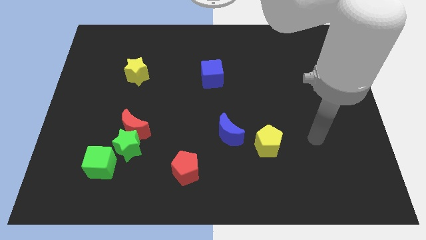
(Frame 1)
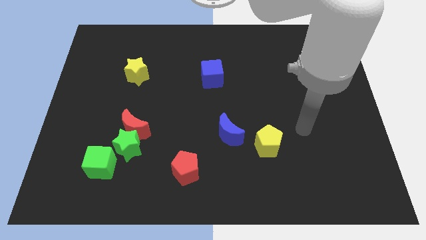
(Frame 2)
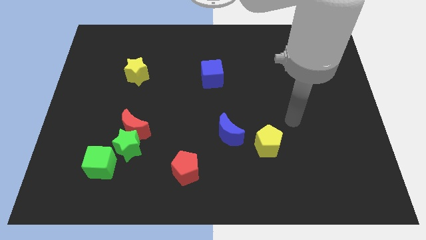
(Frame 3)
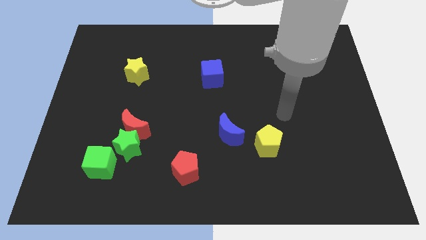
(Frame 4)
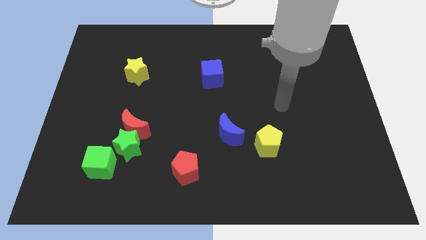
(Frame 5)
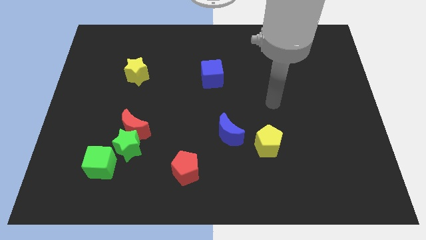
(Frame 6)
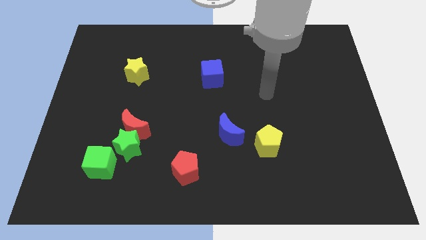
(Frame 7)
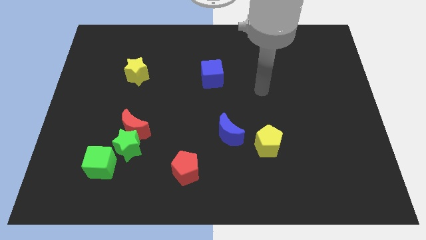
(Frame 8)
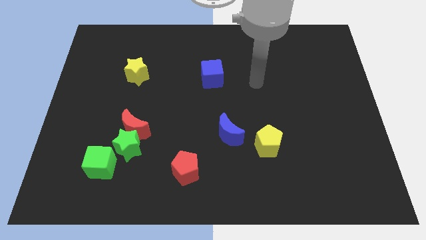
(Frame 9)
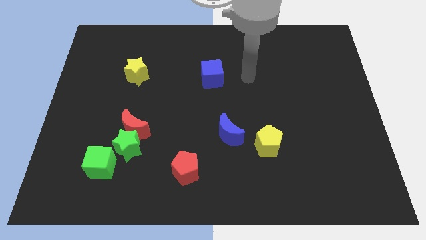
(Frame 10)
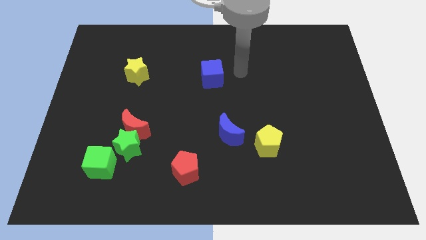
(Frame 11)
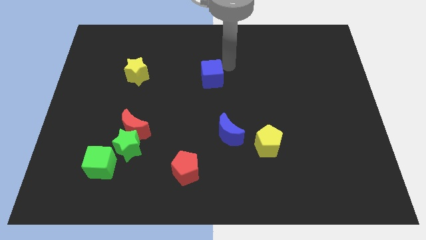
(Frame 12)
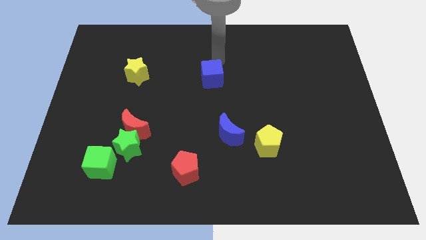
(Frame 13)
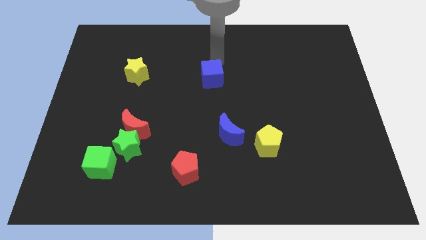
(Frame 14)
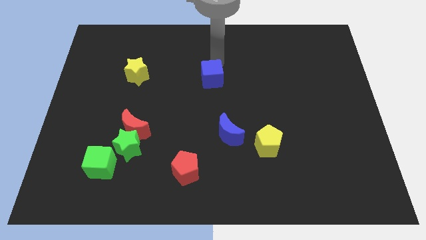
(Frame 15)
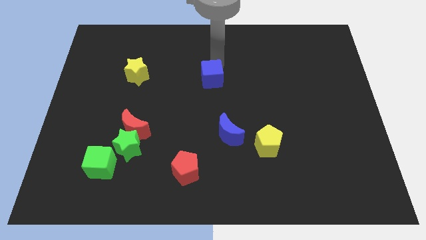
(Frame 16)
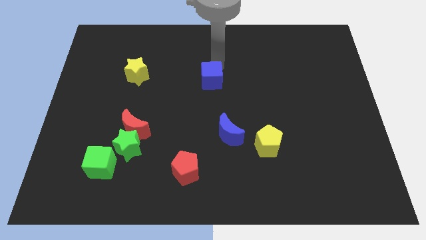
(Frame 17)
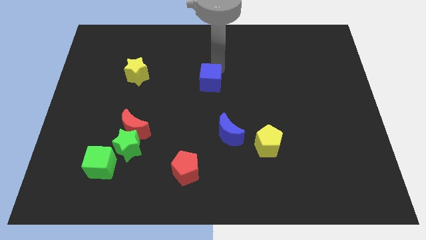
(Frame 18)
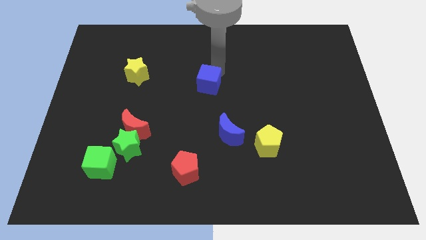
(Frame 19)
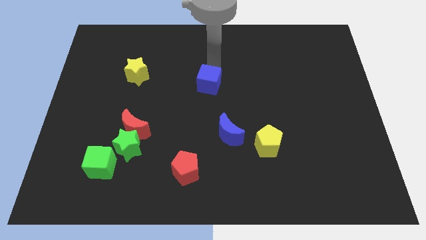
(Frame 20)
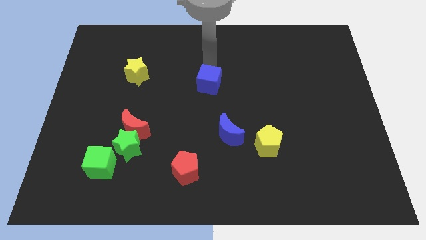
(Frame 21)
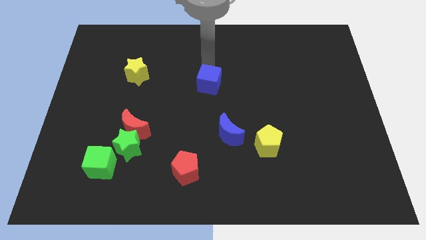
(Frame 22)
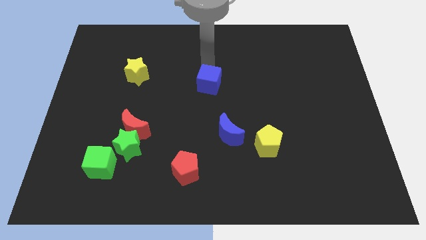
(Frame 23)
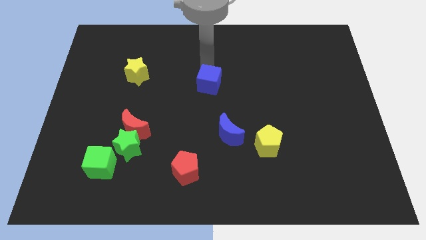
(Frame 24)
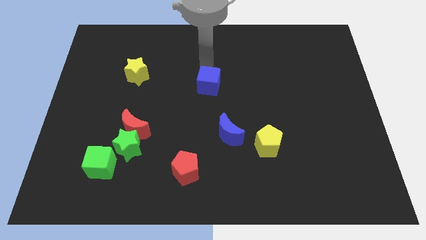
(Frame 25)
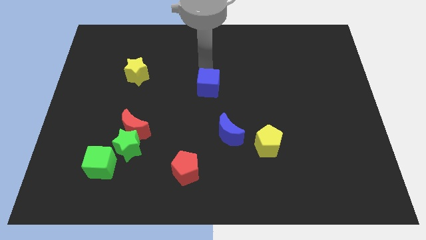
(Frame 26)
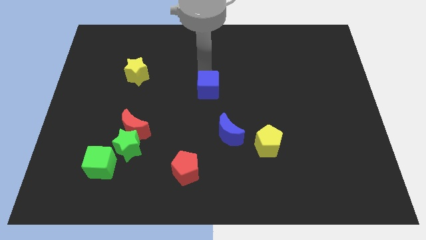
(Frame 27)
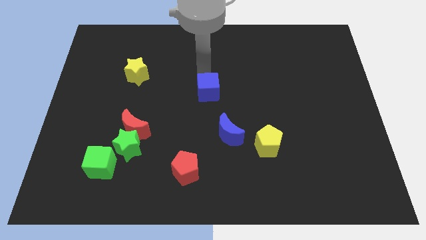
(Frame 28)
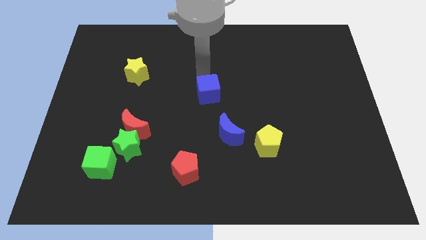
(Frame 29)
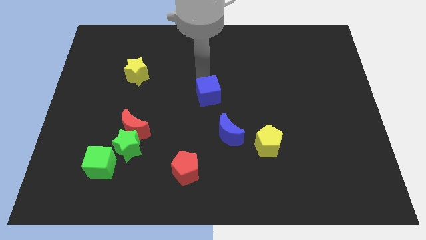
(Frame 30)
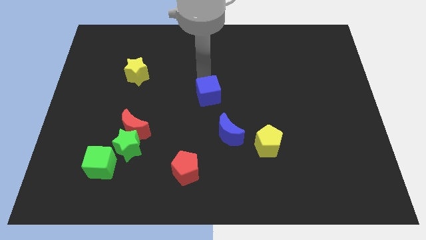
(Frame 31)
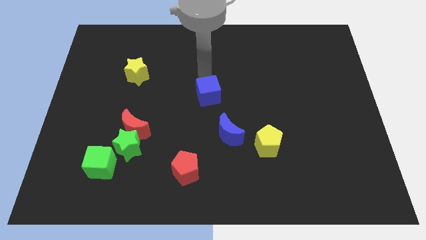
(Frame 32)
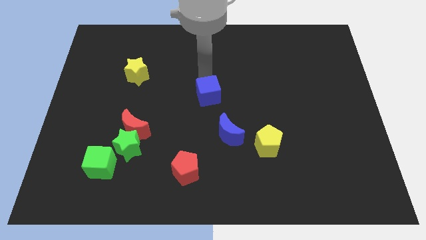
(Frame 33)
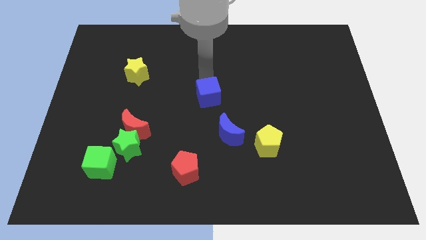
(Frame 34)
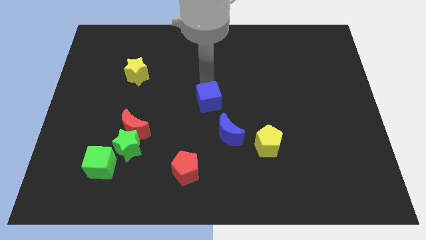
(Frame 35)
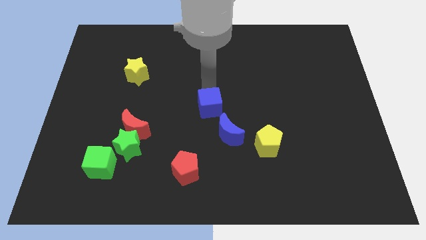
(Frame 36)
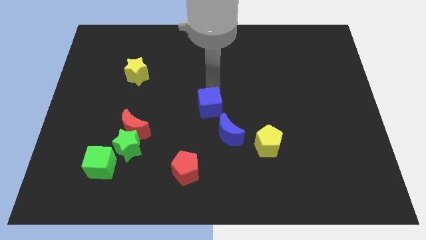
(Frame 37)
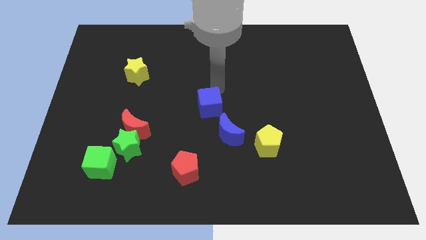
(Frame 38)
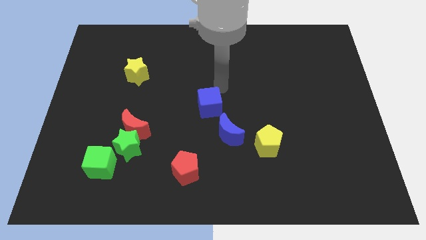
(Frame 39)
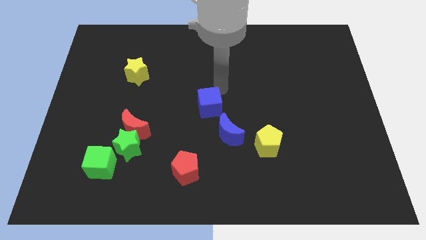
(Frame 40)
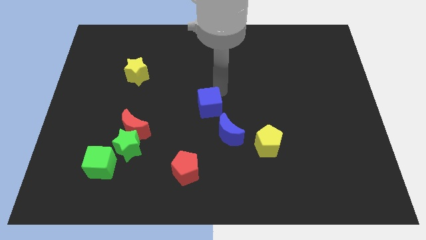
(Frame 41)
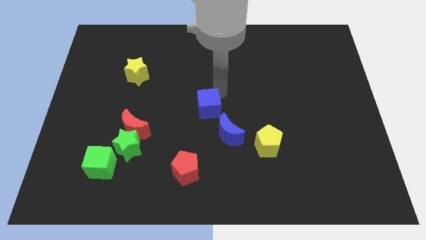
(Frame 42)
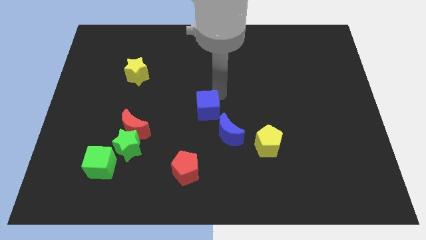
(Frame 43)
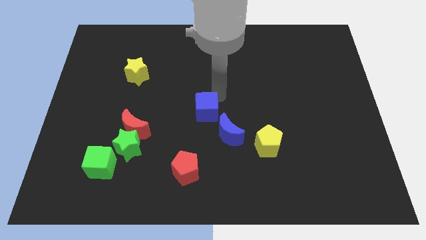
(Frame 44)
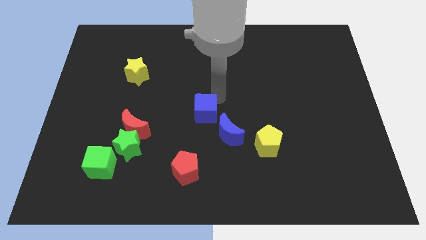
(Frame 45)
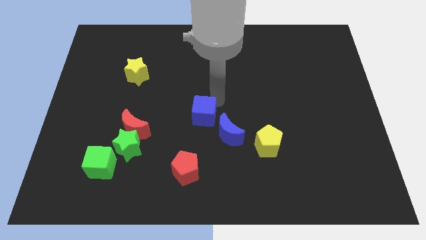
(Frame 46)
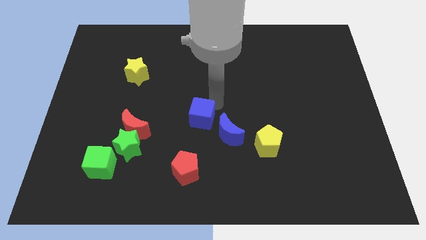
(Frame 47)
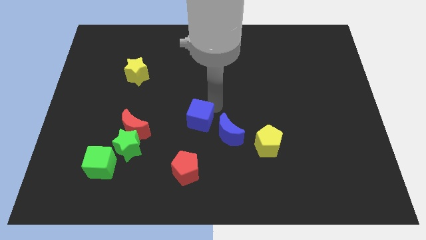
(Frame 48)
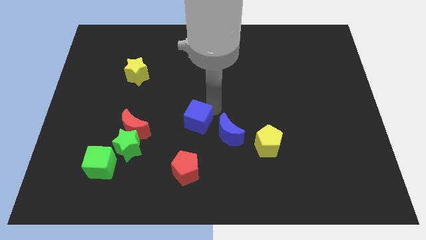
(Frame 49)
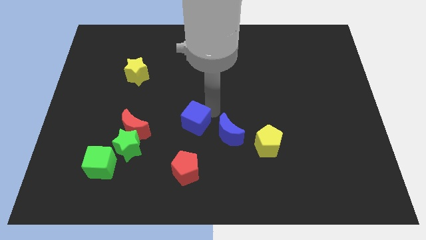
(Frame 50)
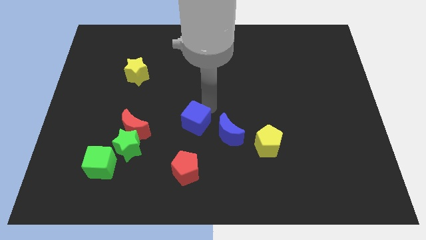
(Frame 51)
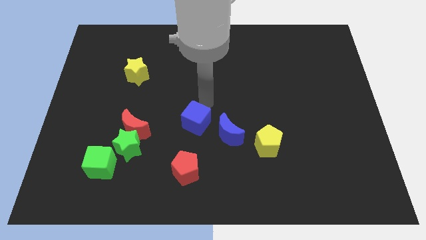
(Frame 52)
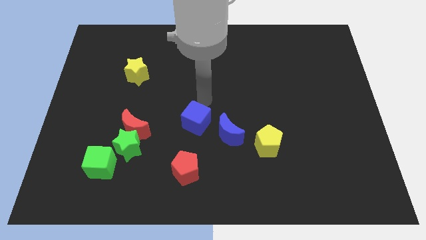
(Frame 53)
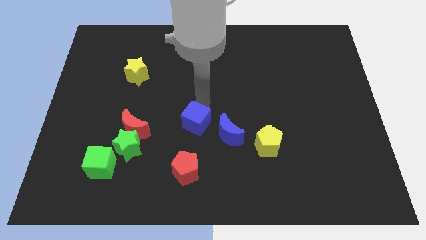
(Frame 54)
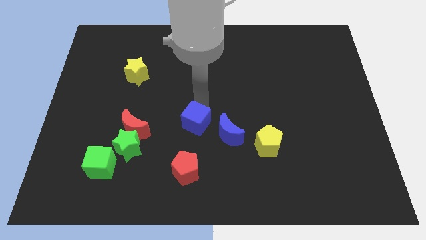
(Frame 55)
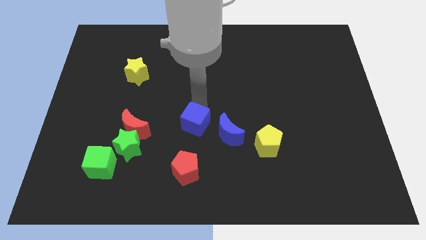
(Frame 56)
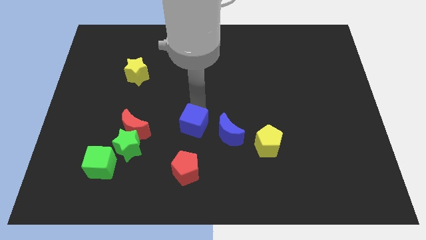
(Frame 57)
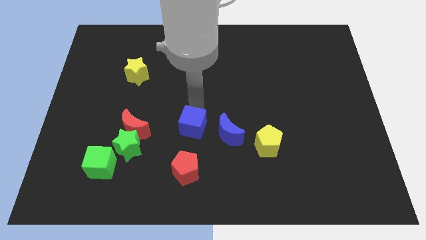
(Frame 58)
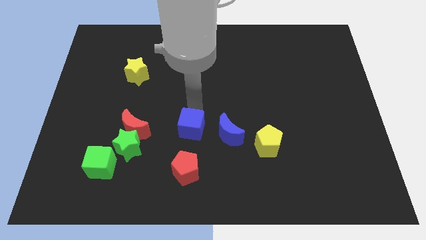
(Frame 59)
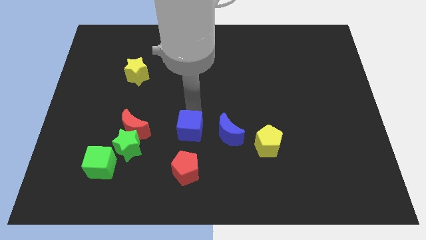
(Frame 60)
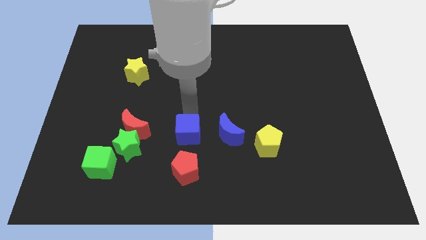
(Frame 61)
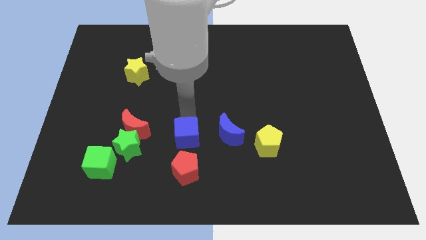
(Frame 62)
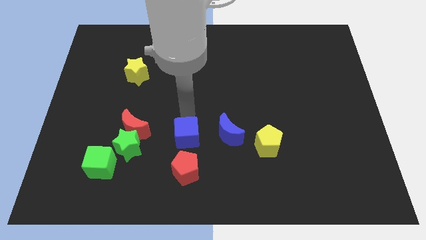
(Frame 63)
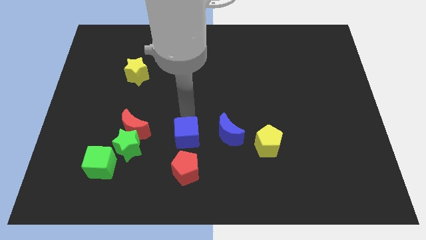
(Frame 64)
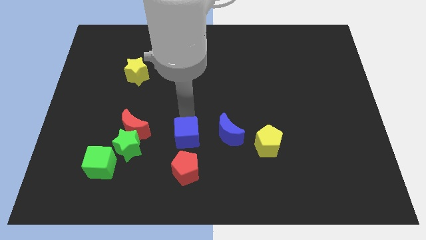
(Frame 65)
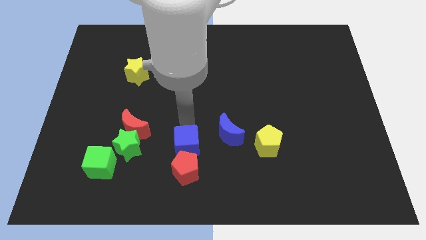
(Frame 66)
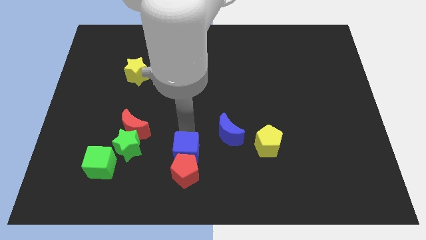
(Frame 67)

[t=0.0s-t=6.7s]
slide the blue cube to the red pentagon

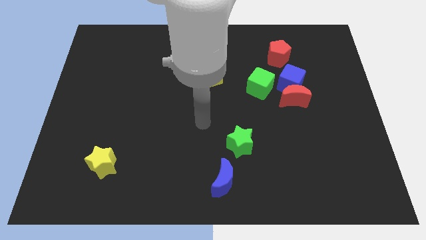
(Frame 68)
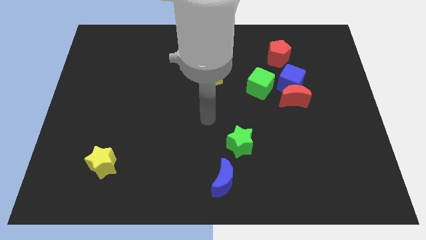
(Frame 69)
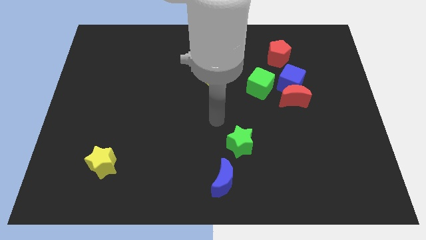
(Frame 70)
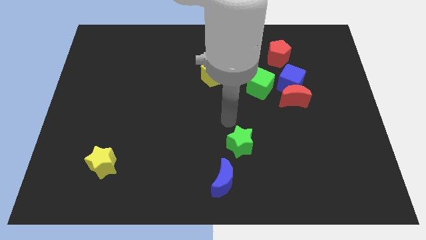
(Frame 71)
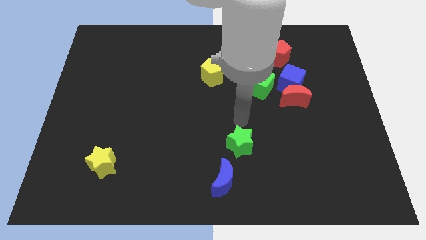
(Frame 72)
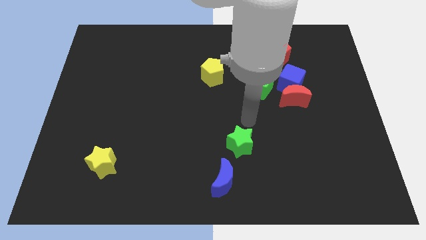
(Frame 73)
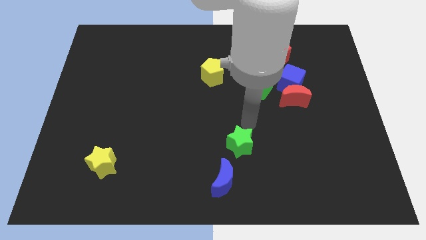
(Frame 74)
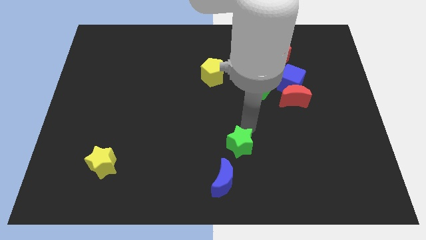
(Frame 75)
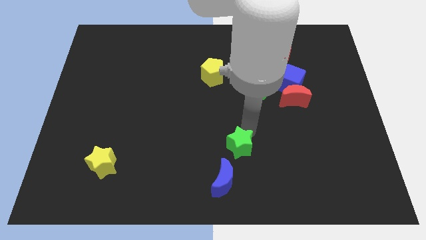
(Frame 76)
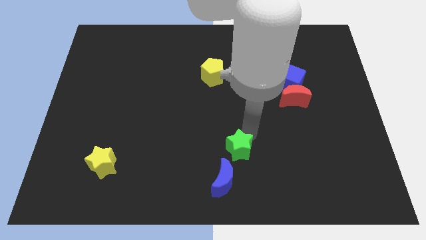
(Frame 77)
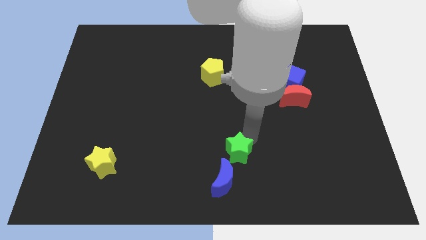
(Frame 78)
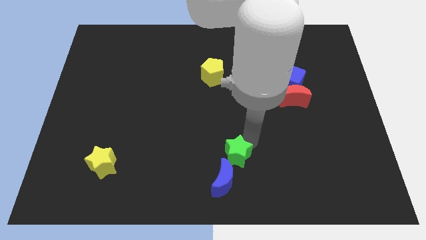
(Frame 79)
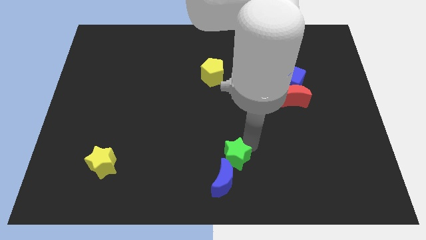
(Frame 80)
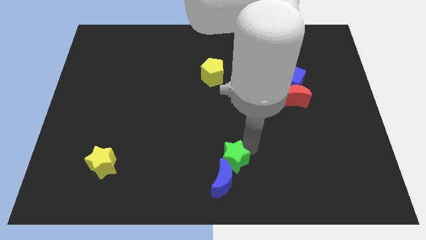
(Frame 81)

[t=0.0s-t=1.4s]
move the green star next to the blue moon
